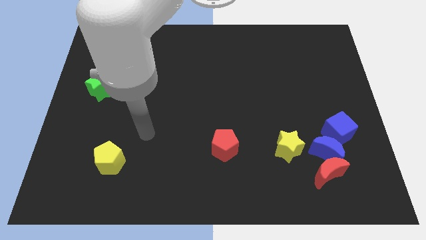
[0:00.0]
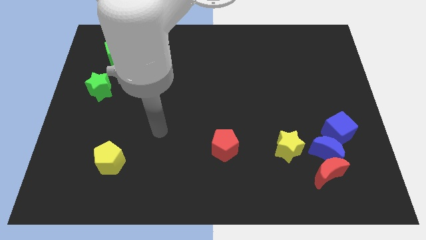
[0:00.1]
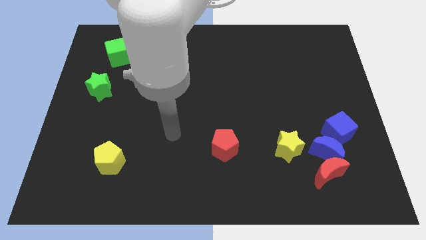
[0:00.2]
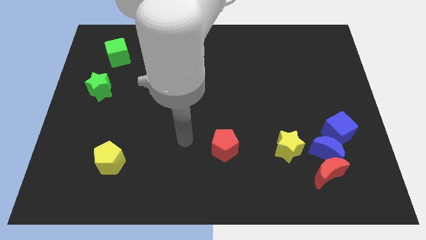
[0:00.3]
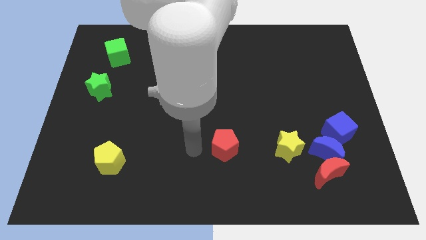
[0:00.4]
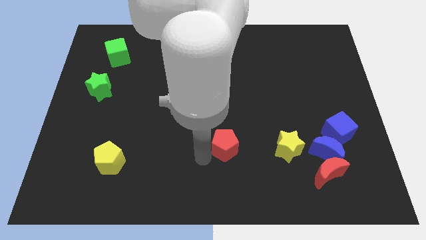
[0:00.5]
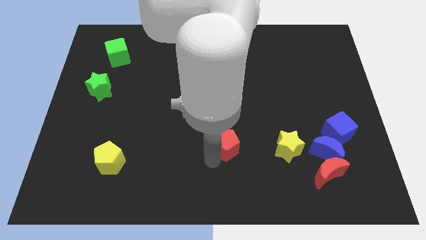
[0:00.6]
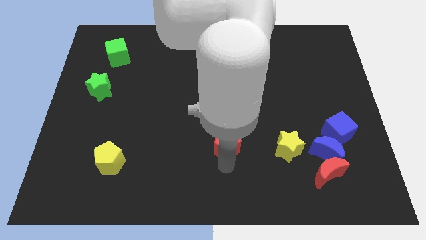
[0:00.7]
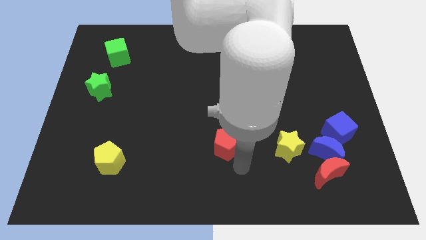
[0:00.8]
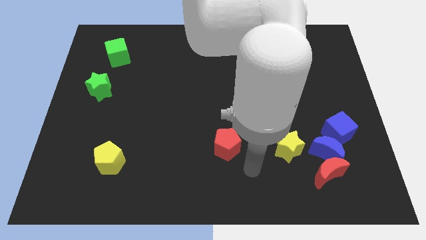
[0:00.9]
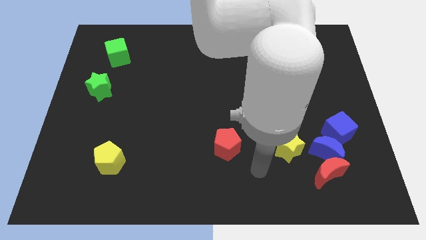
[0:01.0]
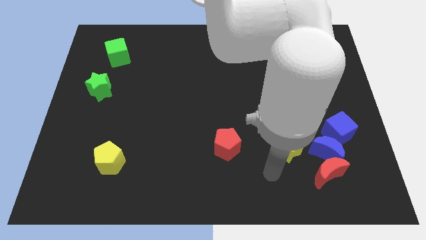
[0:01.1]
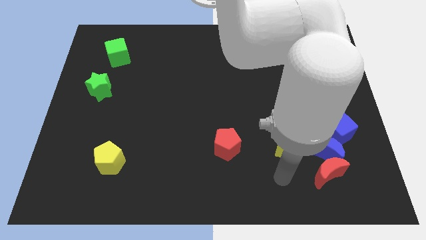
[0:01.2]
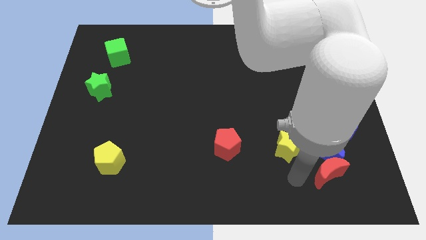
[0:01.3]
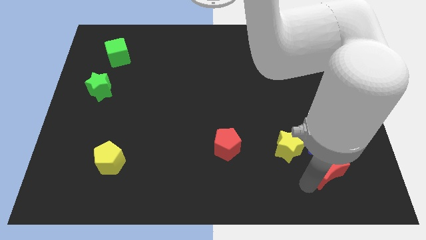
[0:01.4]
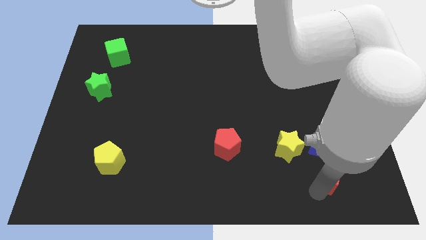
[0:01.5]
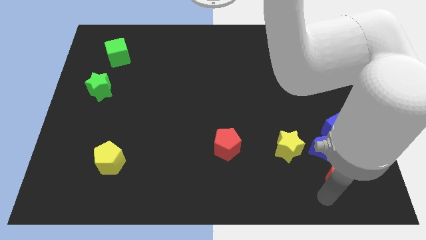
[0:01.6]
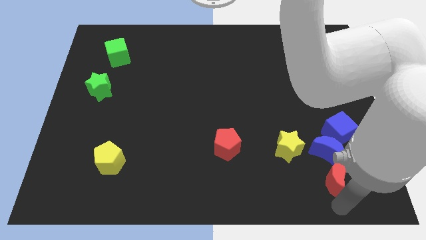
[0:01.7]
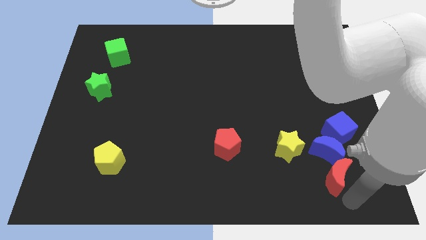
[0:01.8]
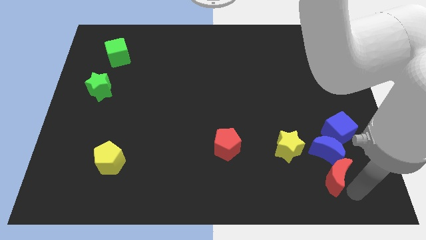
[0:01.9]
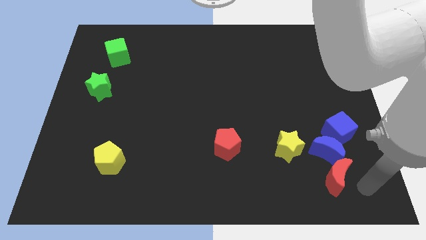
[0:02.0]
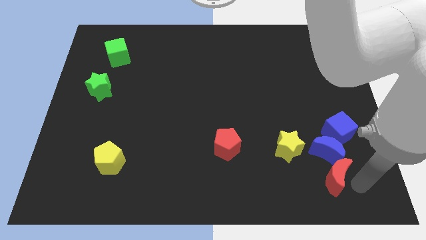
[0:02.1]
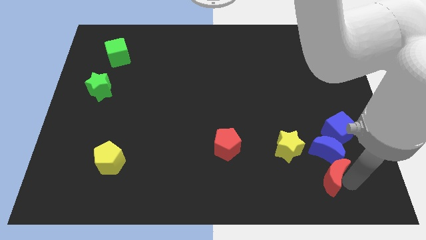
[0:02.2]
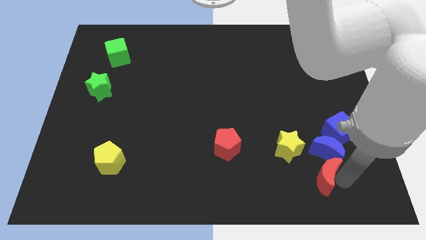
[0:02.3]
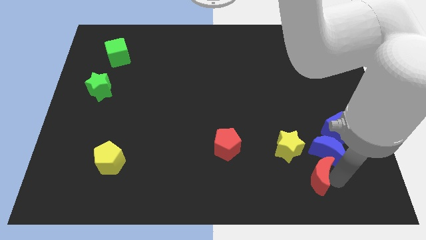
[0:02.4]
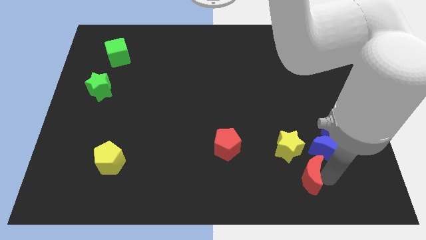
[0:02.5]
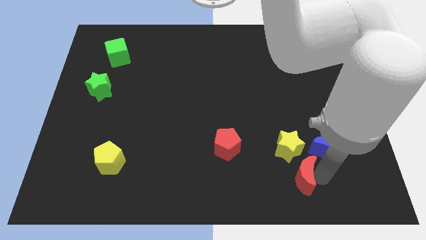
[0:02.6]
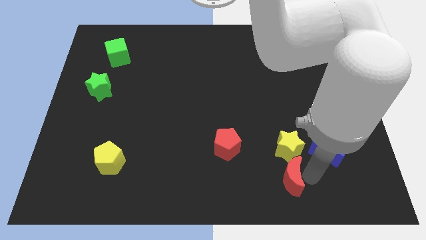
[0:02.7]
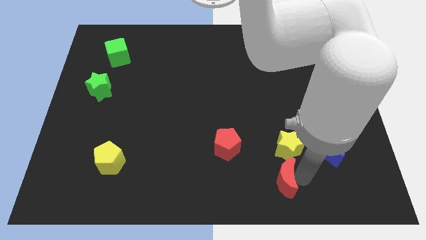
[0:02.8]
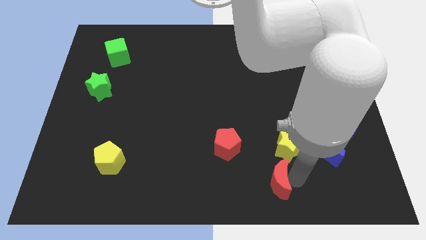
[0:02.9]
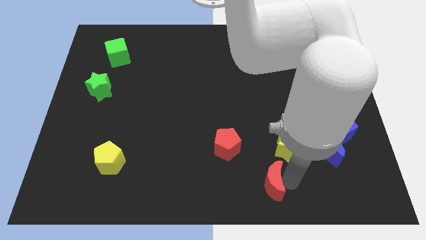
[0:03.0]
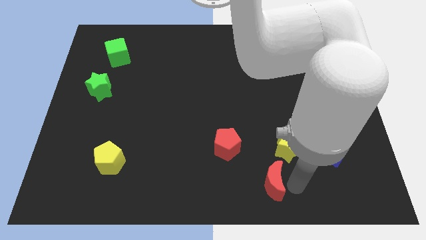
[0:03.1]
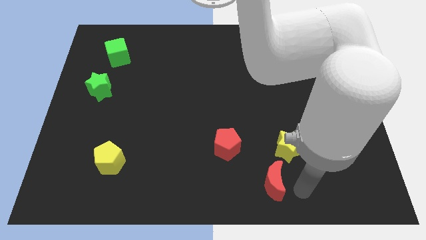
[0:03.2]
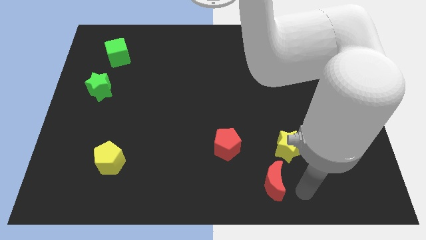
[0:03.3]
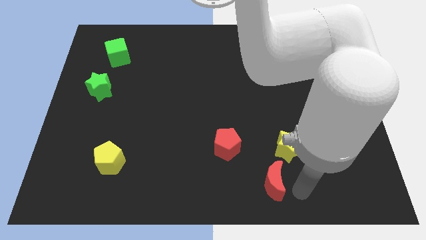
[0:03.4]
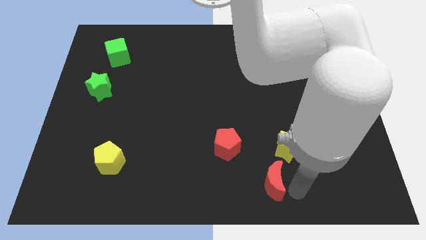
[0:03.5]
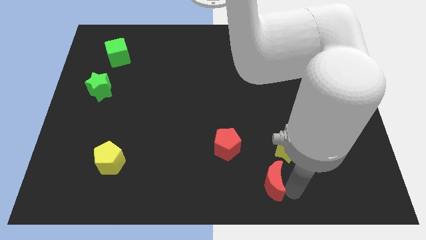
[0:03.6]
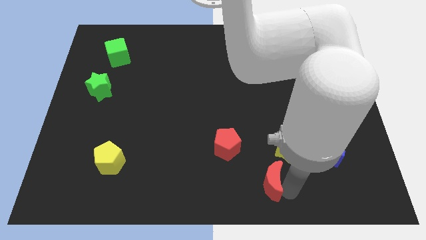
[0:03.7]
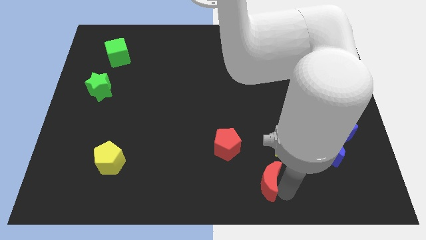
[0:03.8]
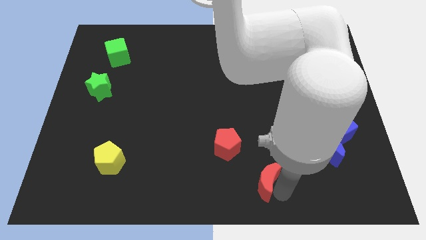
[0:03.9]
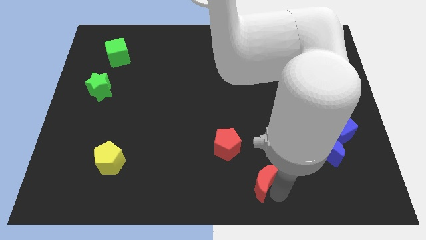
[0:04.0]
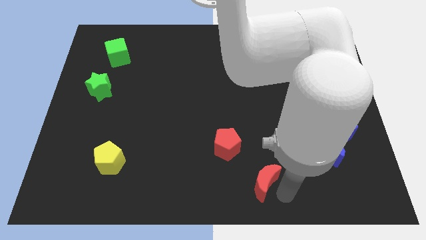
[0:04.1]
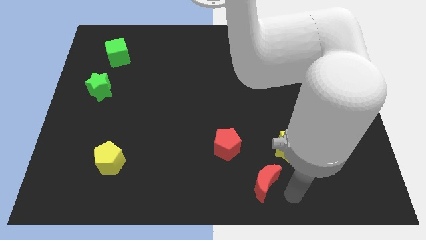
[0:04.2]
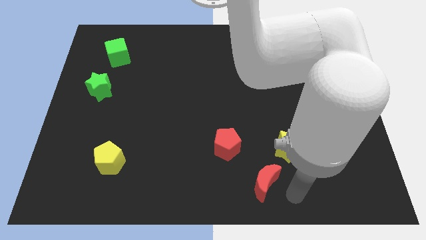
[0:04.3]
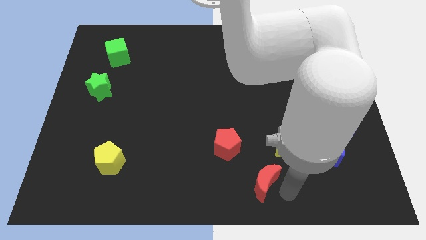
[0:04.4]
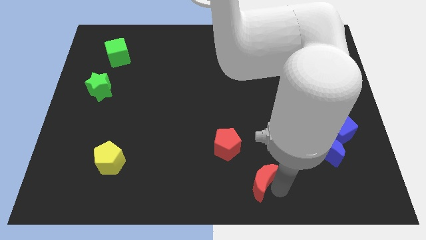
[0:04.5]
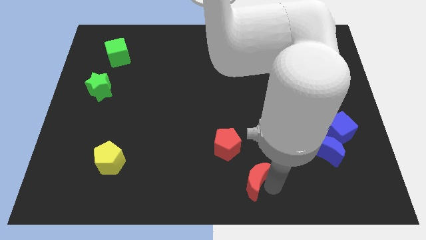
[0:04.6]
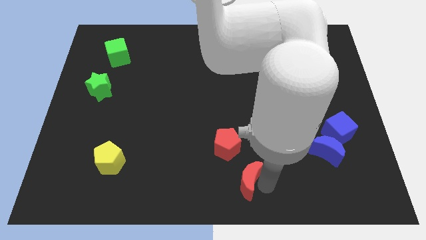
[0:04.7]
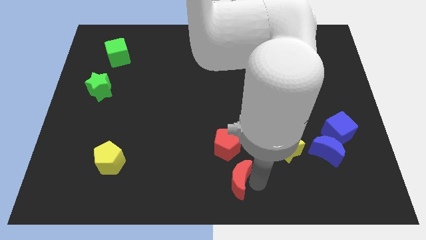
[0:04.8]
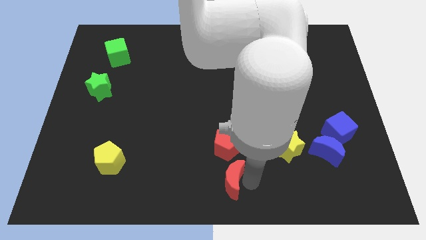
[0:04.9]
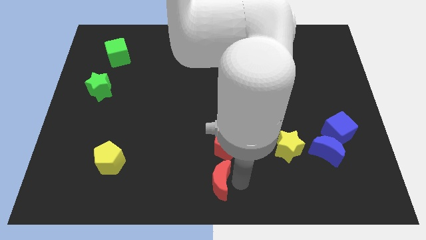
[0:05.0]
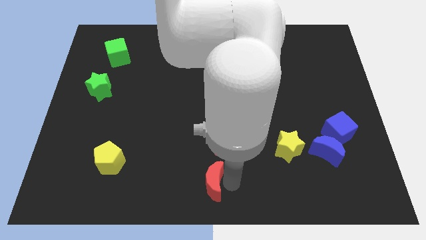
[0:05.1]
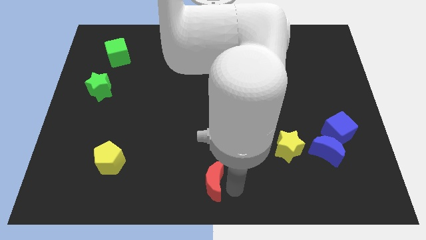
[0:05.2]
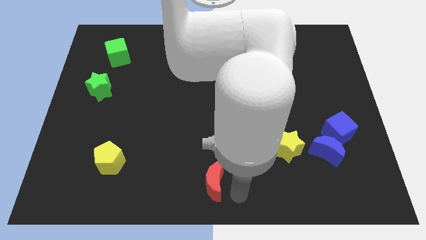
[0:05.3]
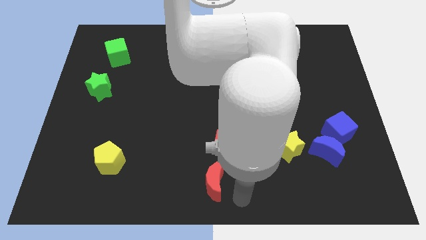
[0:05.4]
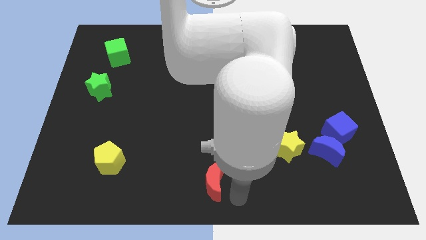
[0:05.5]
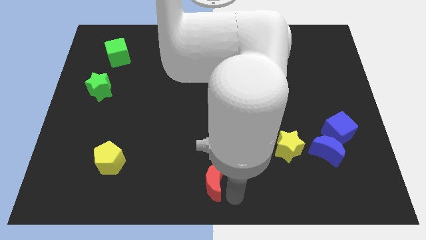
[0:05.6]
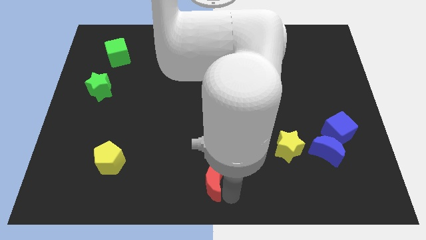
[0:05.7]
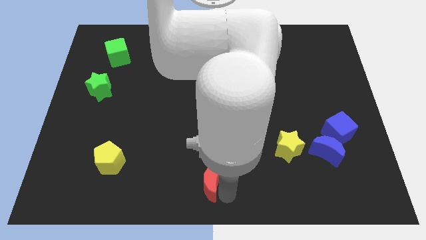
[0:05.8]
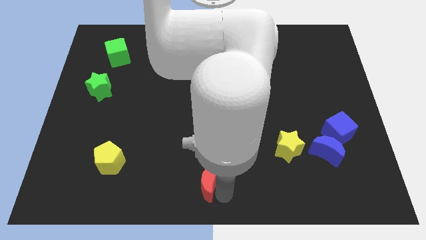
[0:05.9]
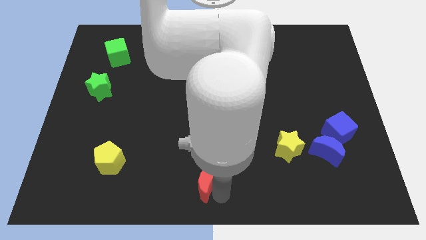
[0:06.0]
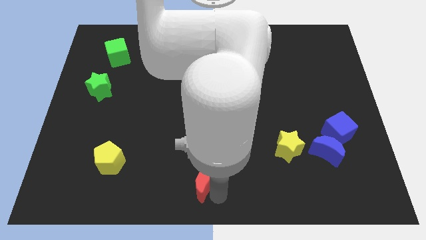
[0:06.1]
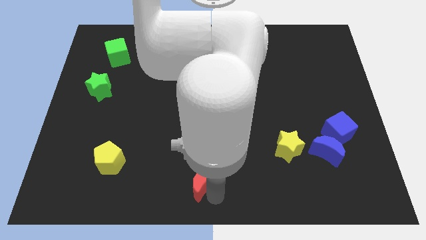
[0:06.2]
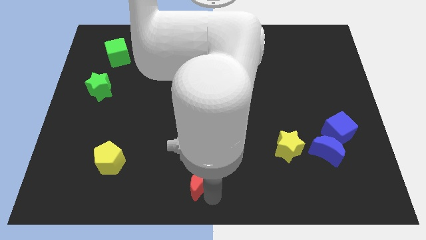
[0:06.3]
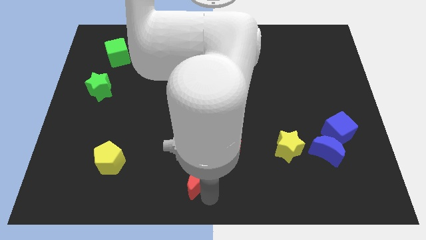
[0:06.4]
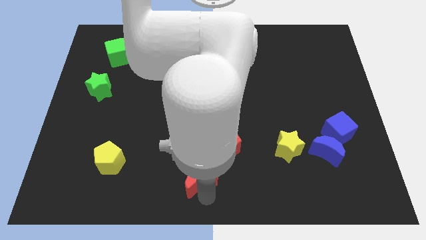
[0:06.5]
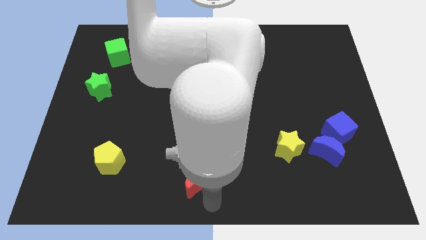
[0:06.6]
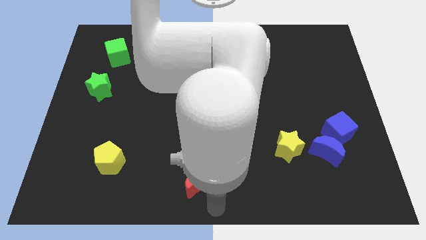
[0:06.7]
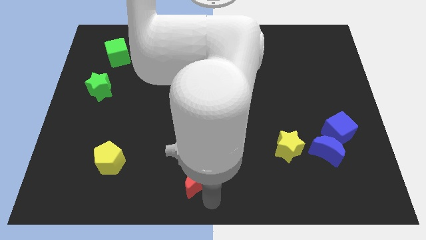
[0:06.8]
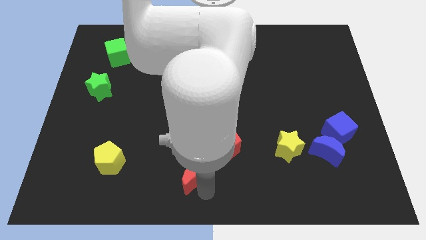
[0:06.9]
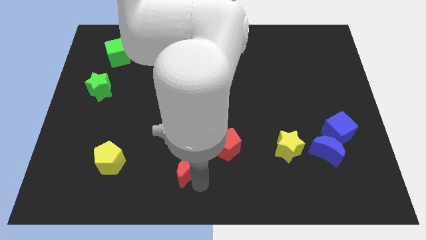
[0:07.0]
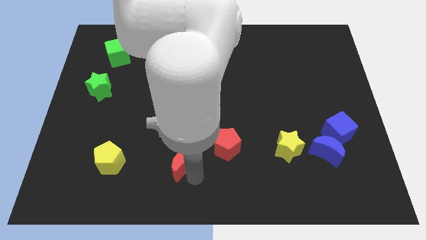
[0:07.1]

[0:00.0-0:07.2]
push the red moon left of the red pentagon
